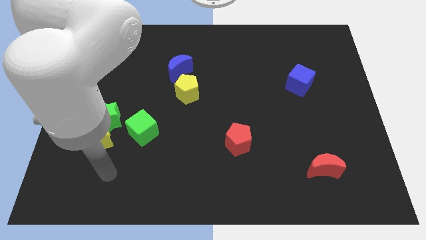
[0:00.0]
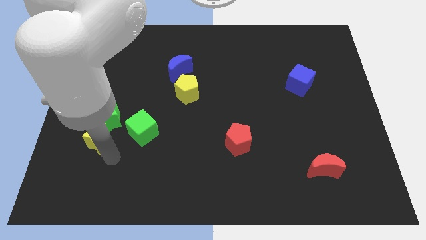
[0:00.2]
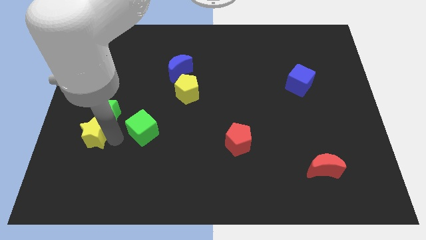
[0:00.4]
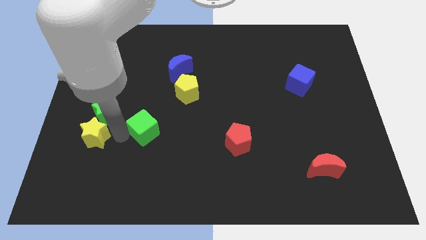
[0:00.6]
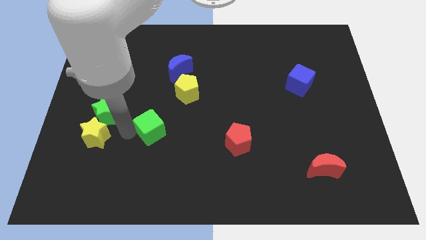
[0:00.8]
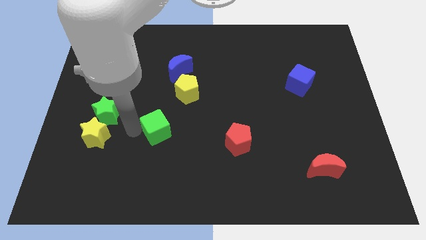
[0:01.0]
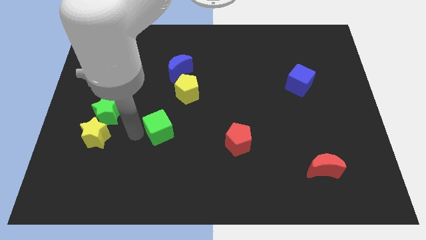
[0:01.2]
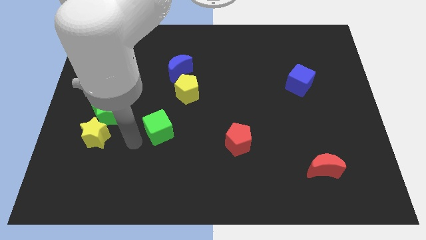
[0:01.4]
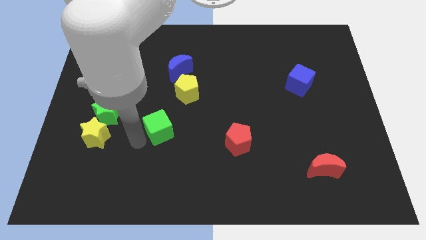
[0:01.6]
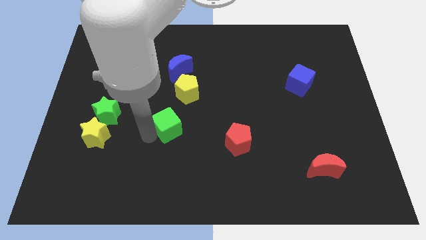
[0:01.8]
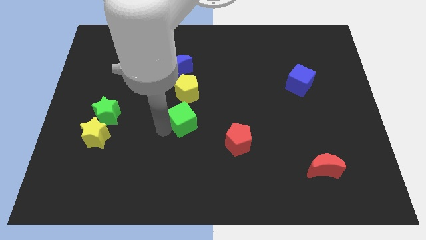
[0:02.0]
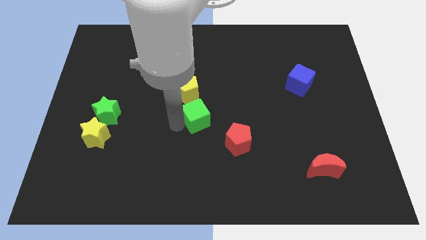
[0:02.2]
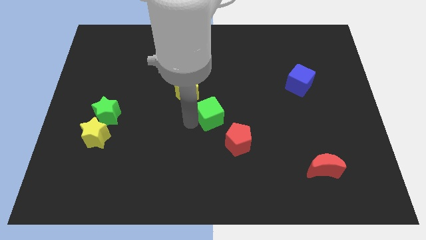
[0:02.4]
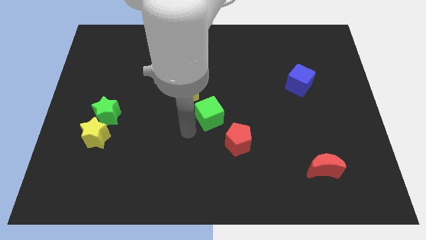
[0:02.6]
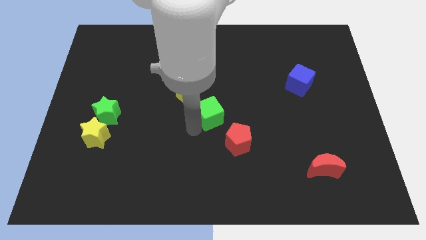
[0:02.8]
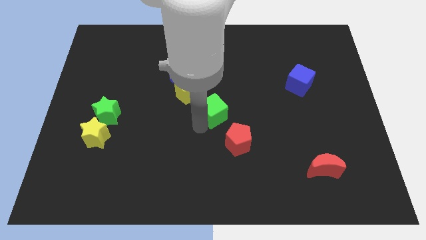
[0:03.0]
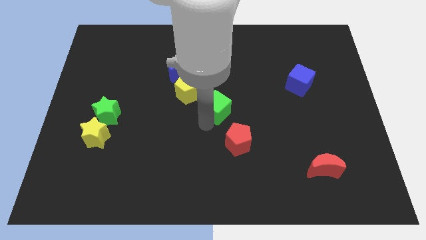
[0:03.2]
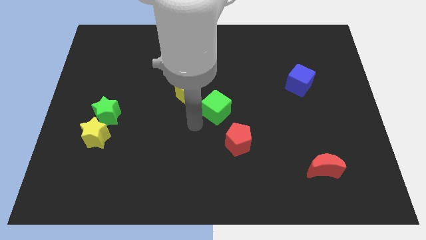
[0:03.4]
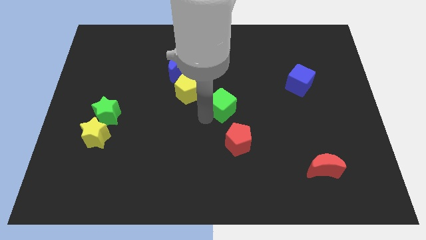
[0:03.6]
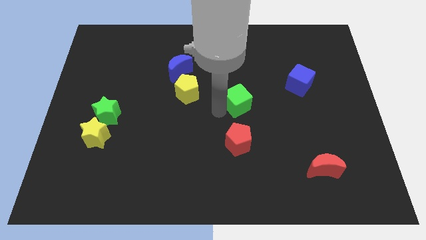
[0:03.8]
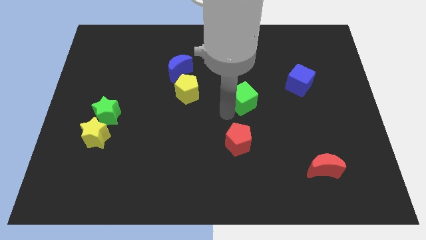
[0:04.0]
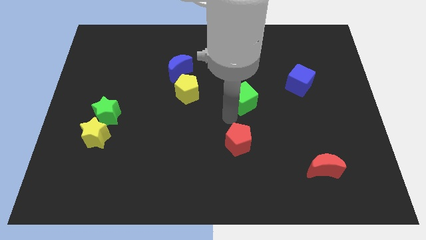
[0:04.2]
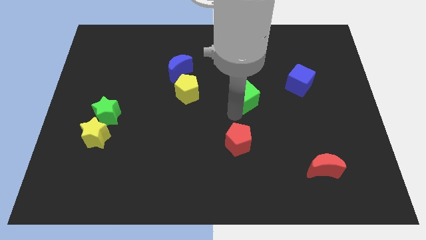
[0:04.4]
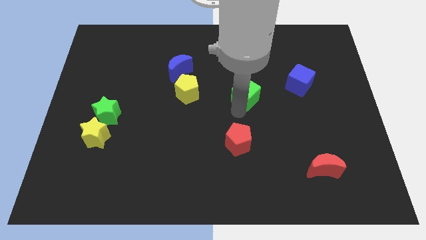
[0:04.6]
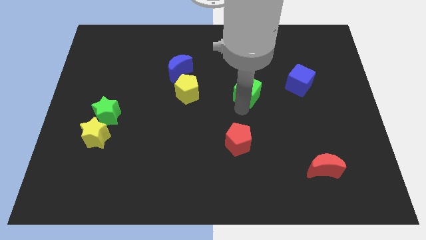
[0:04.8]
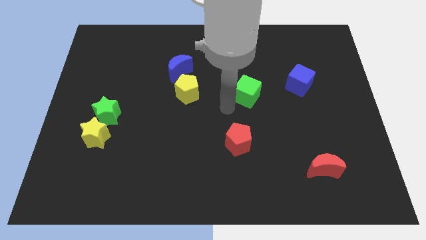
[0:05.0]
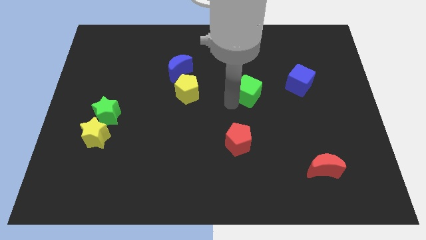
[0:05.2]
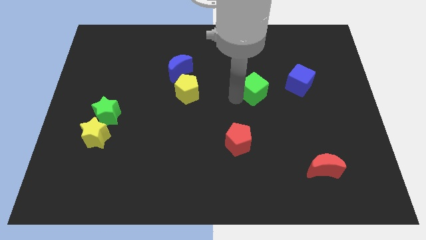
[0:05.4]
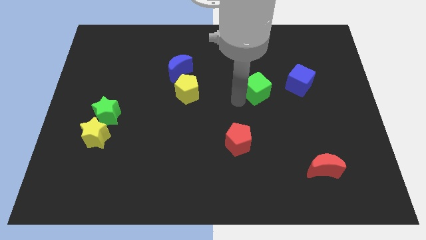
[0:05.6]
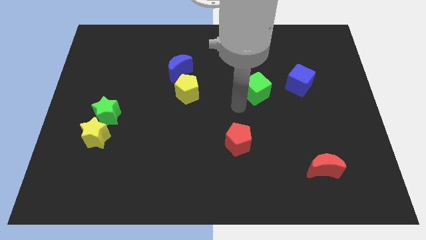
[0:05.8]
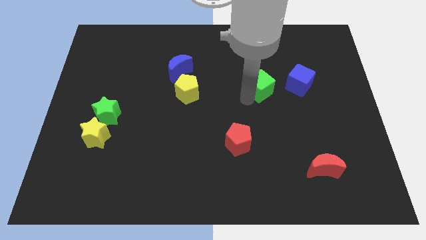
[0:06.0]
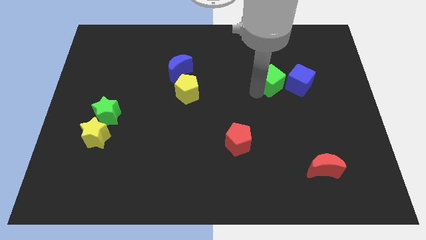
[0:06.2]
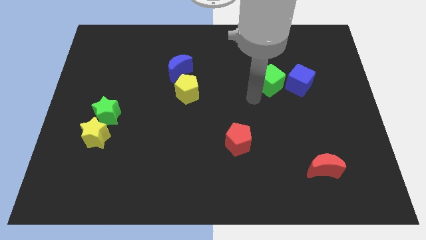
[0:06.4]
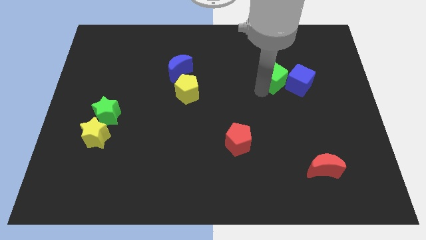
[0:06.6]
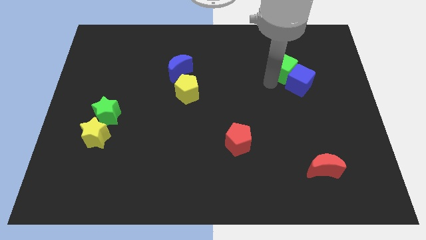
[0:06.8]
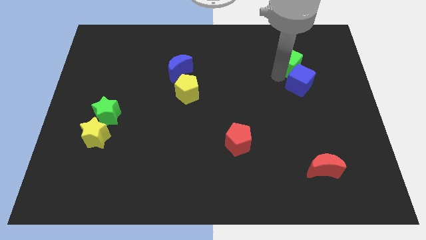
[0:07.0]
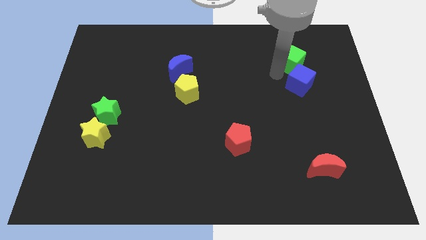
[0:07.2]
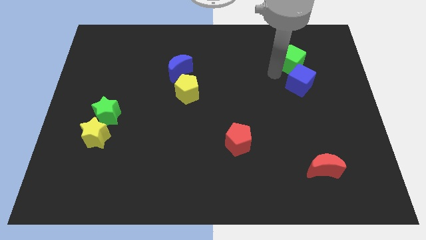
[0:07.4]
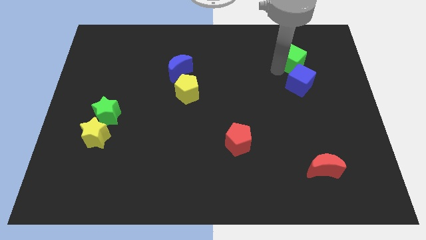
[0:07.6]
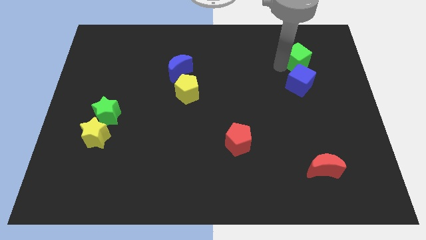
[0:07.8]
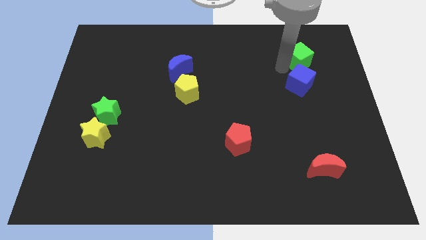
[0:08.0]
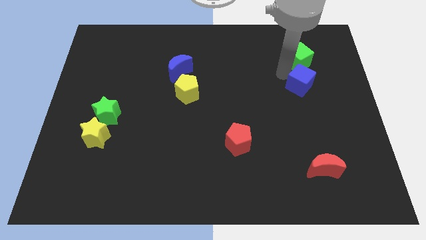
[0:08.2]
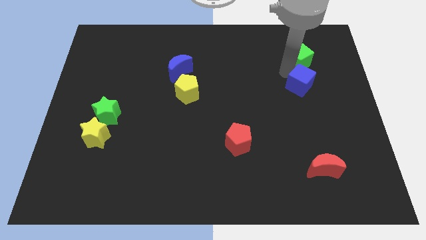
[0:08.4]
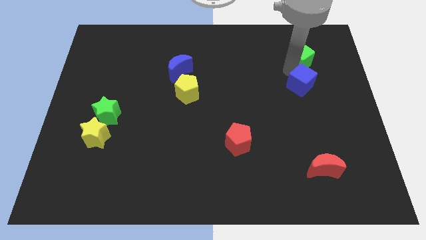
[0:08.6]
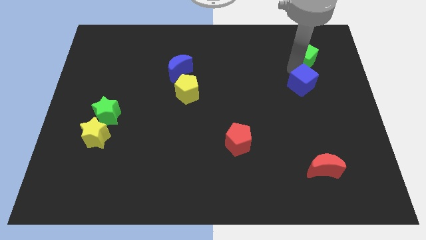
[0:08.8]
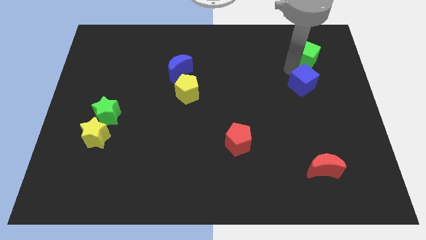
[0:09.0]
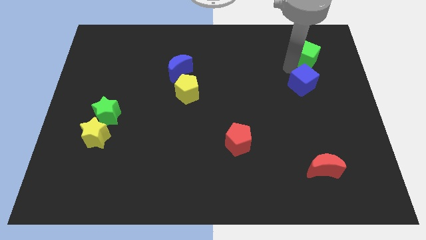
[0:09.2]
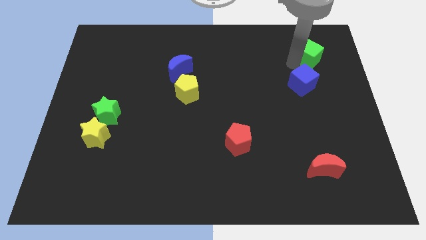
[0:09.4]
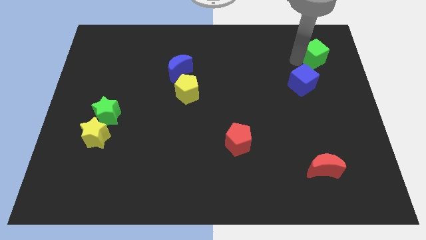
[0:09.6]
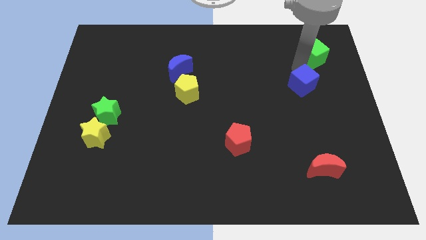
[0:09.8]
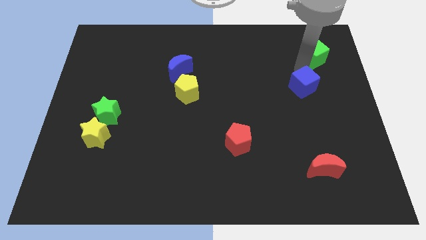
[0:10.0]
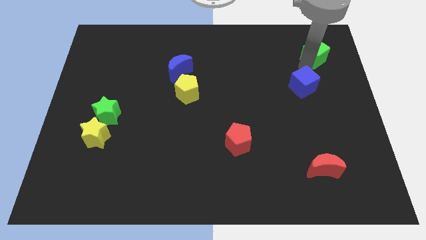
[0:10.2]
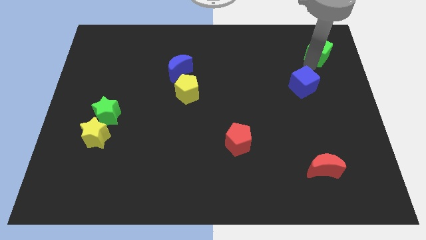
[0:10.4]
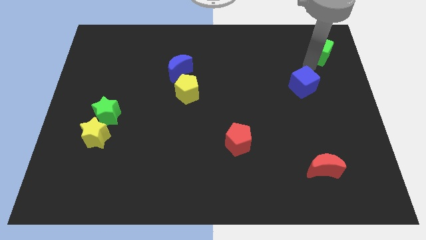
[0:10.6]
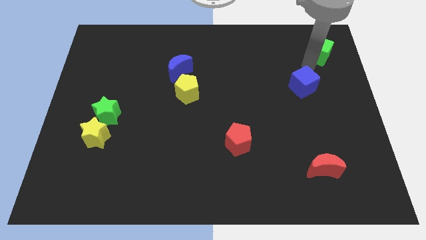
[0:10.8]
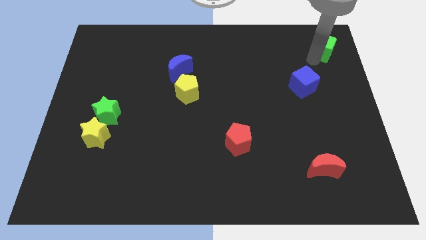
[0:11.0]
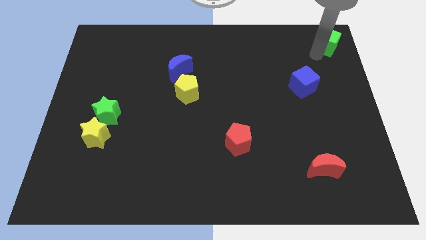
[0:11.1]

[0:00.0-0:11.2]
slide the green cube to the top right corner
